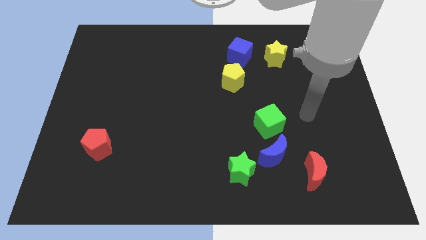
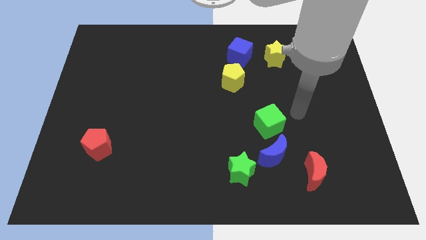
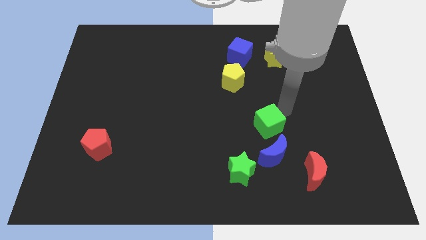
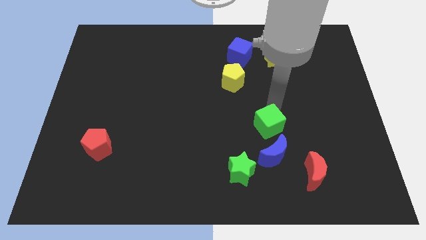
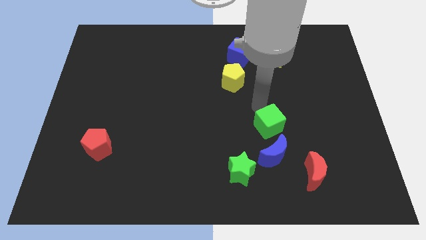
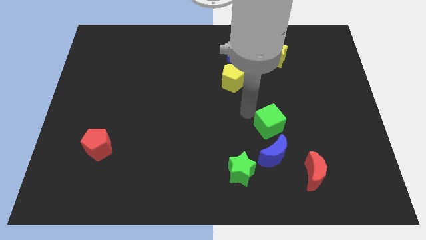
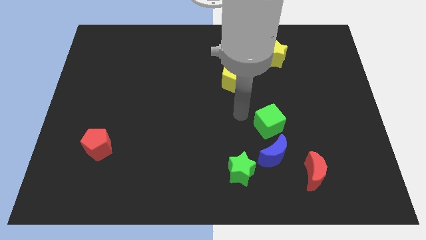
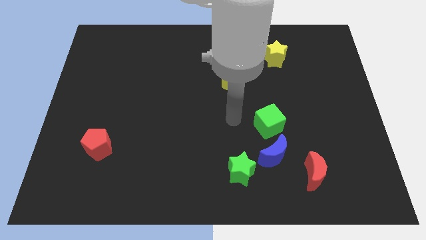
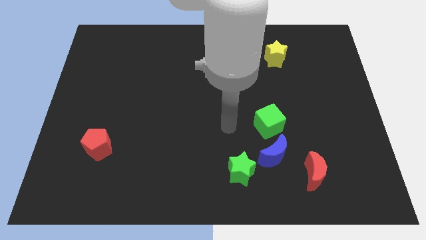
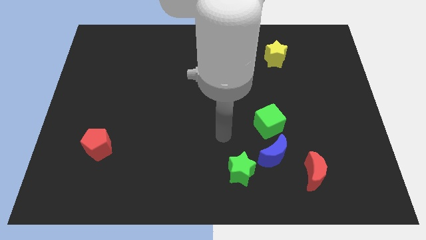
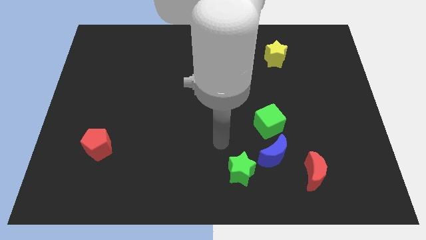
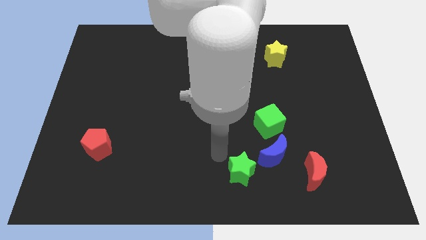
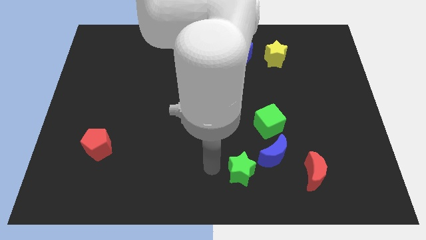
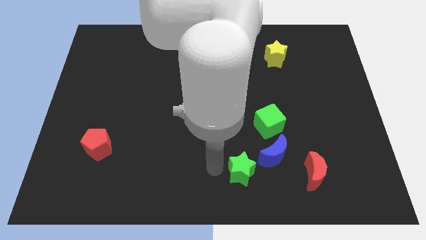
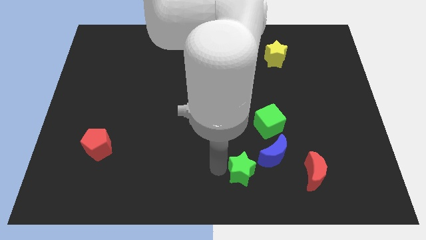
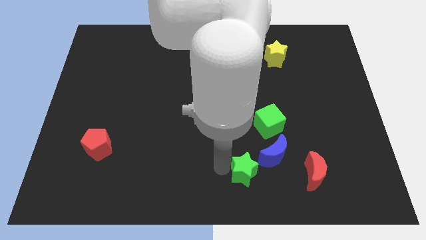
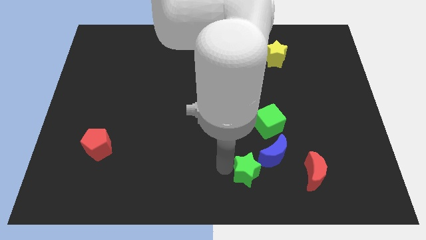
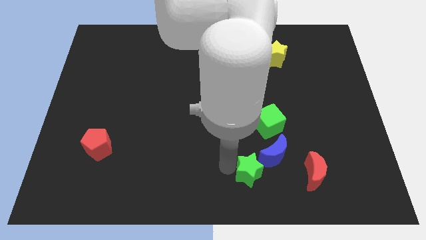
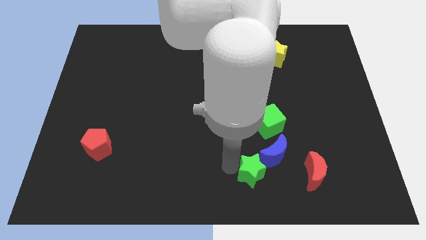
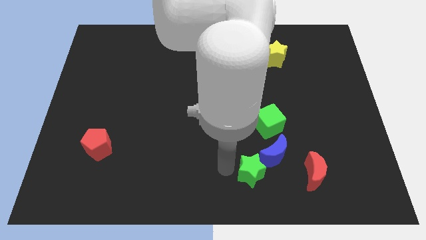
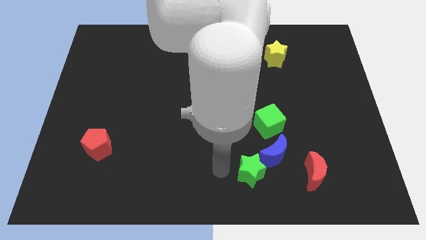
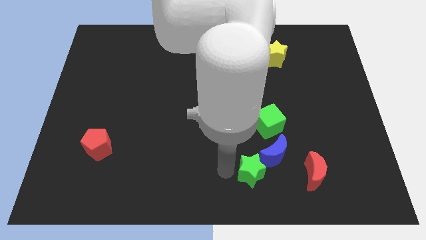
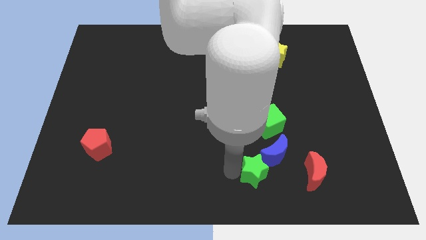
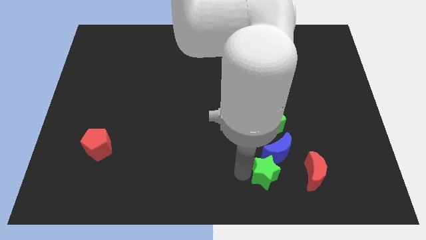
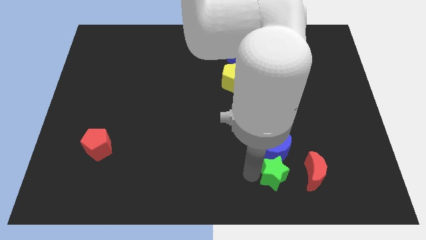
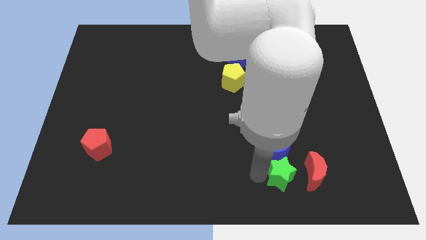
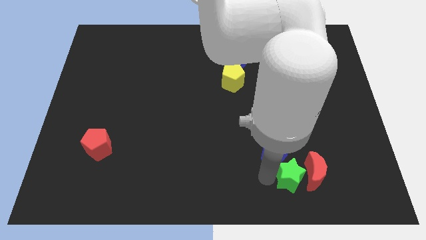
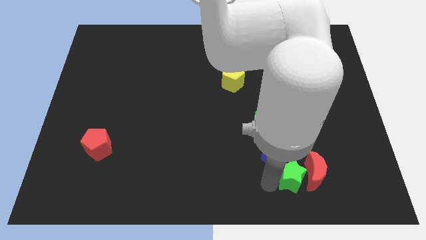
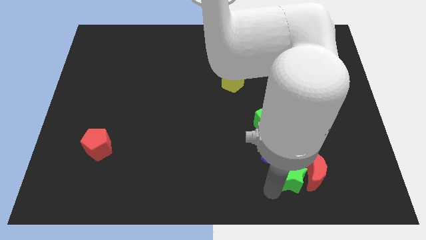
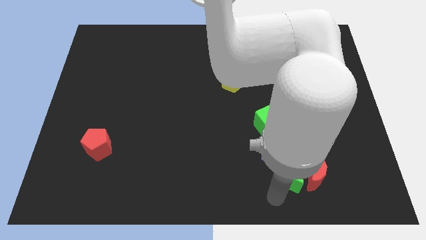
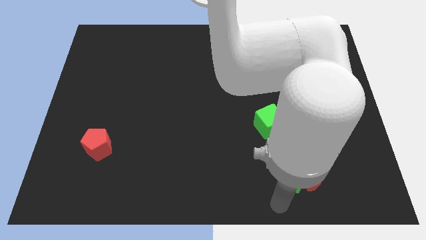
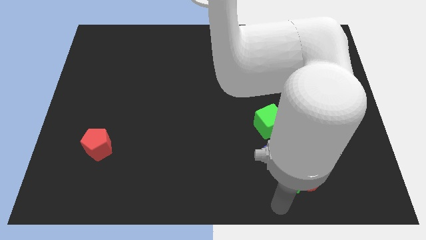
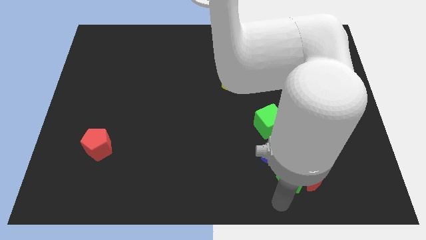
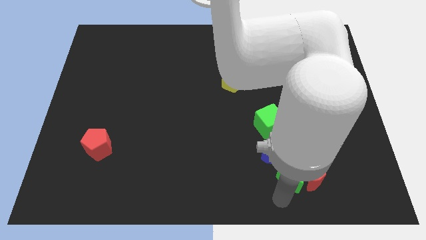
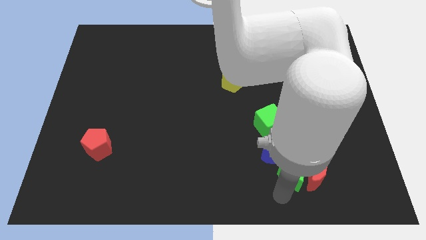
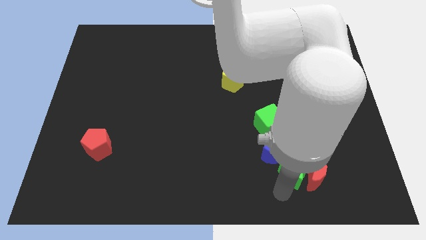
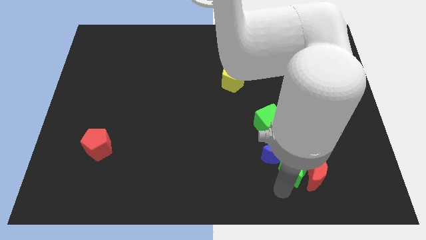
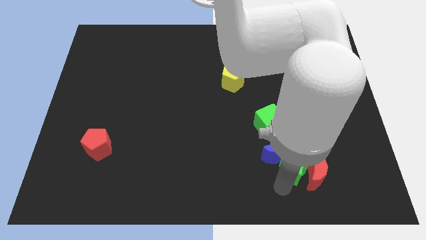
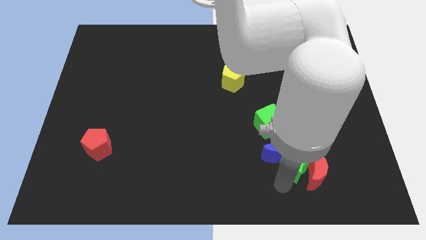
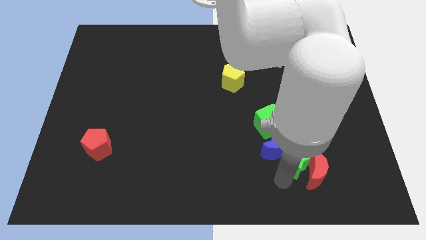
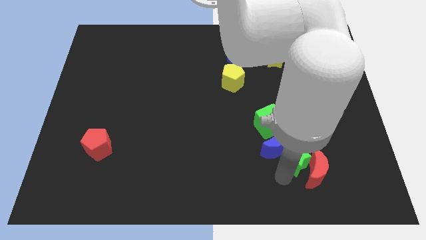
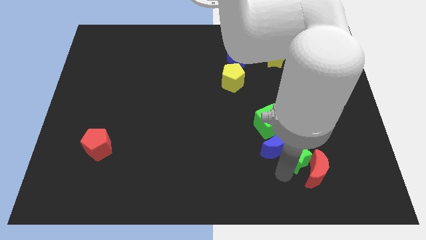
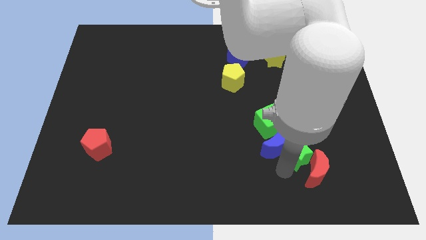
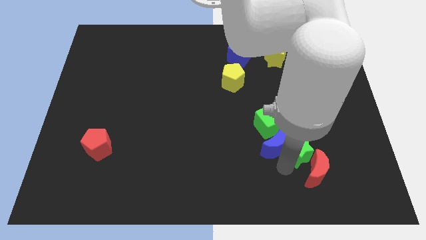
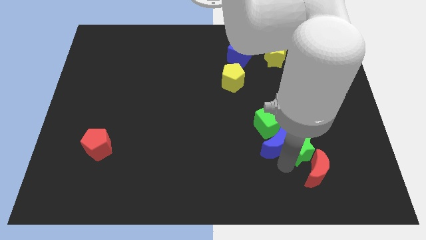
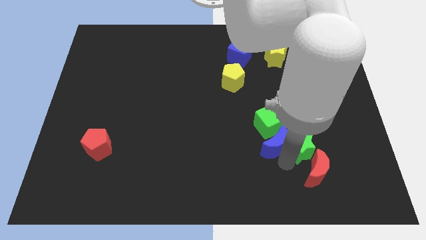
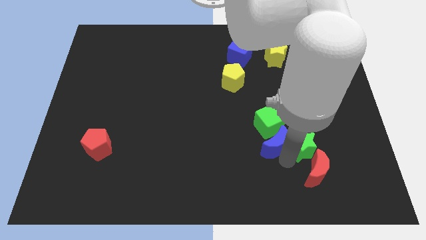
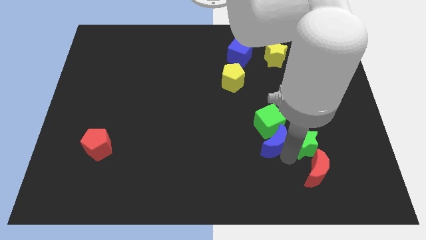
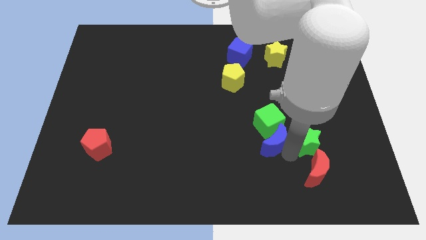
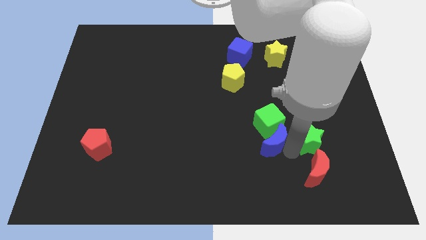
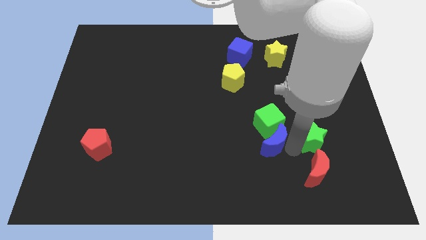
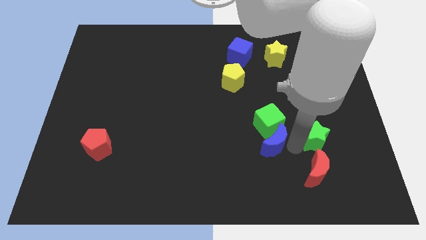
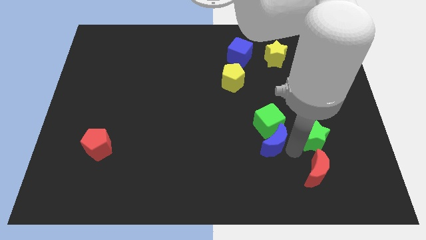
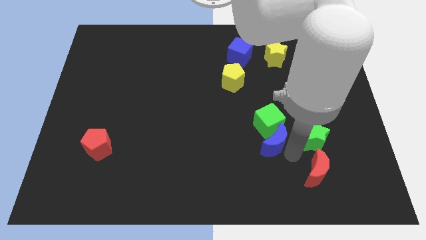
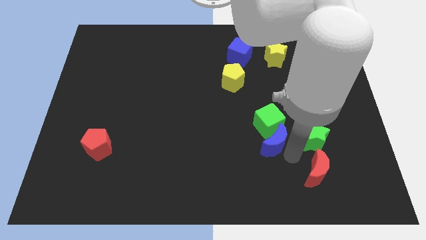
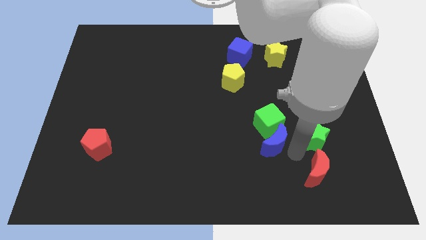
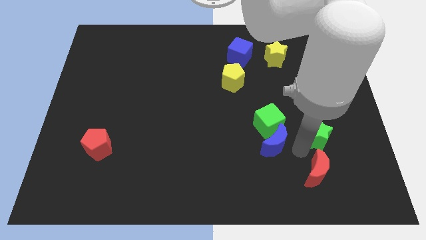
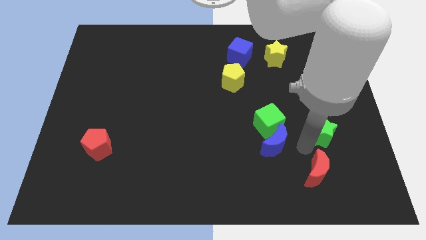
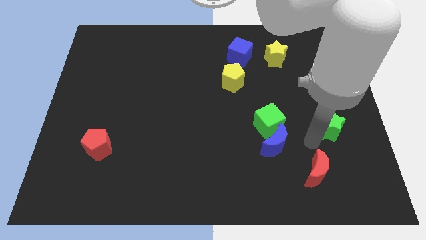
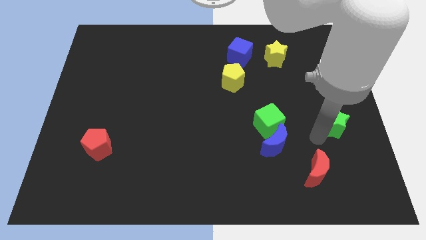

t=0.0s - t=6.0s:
slide the green star to the right side of the board

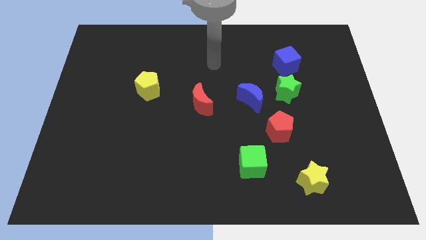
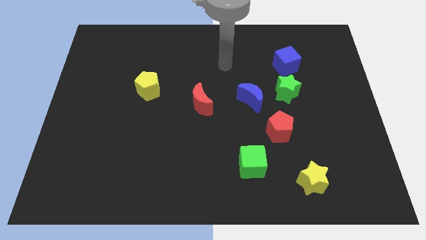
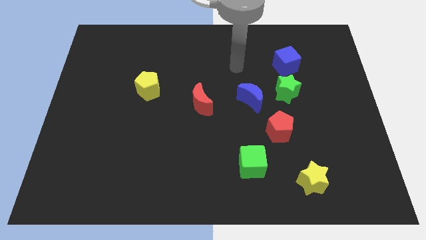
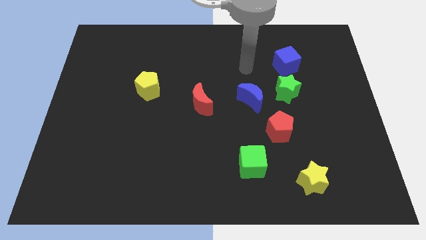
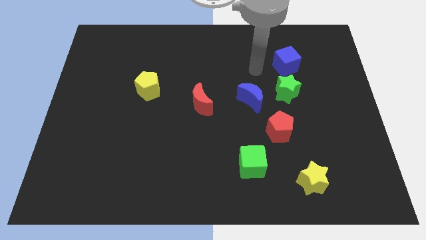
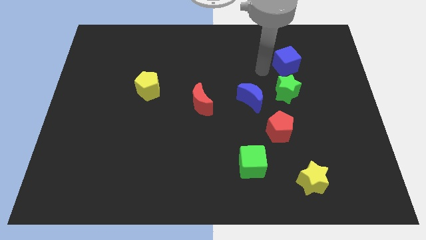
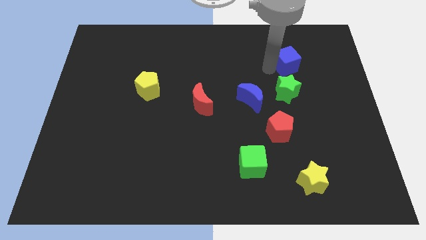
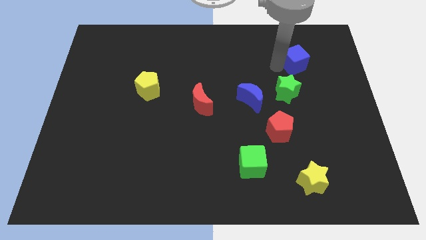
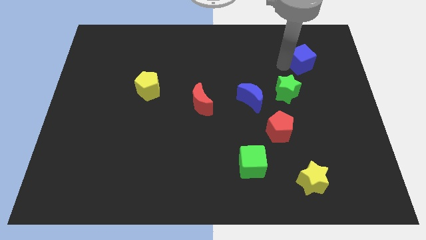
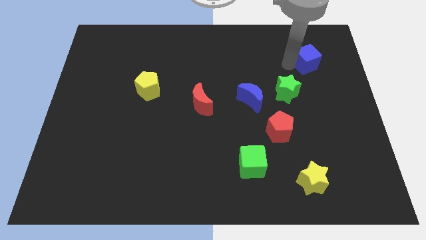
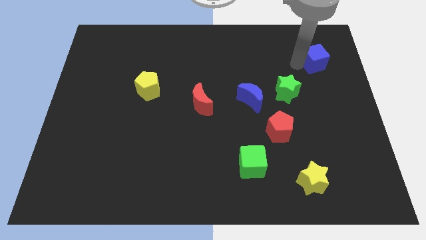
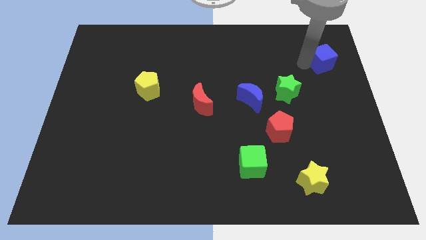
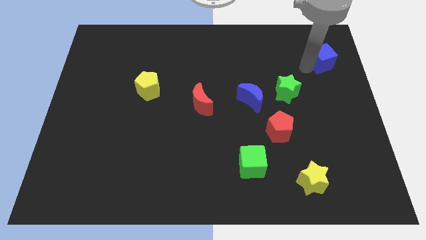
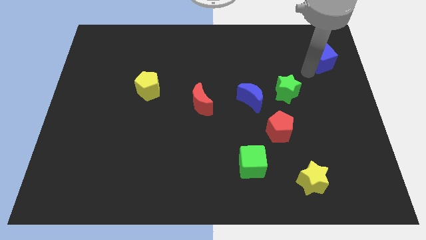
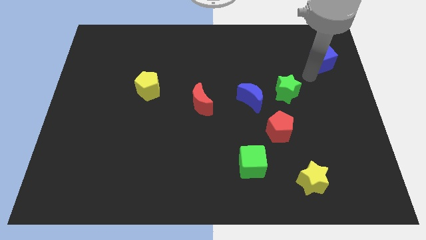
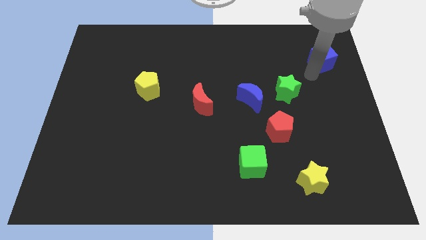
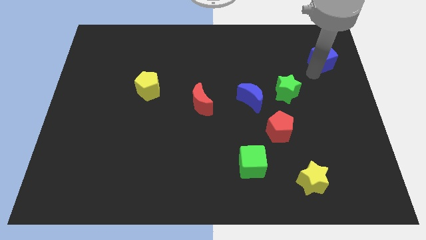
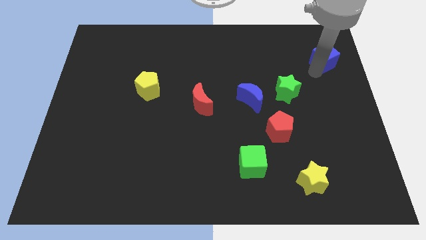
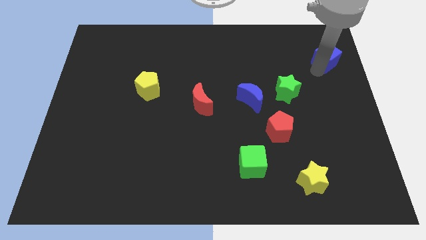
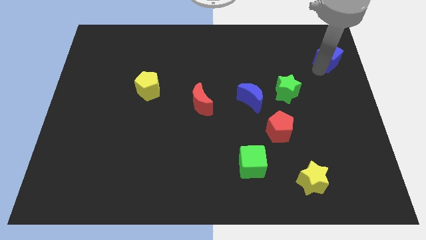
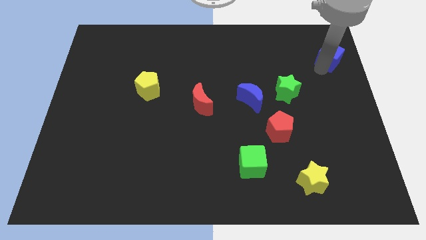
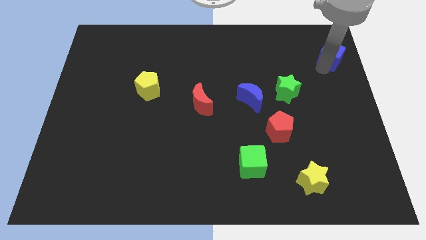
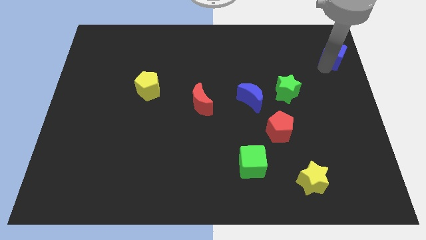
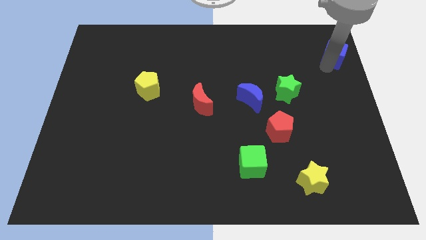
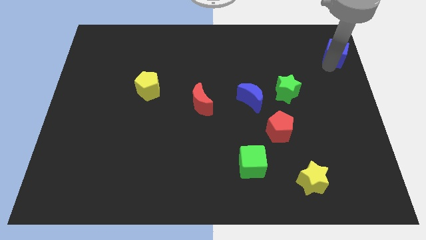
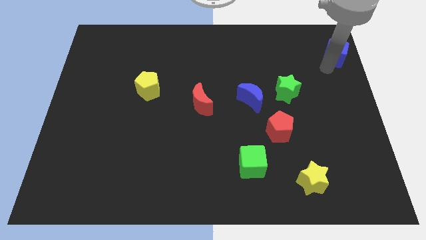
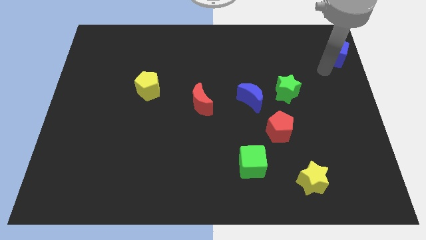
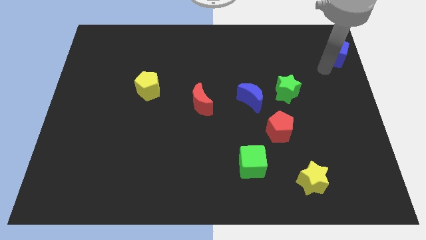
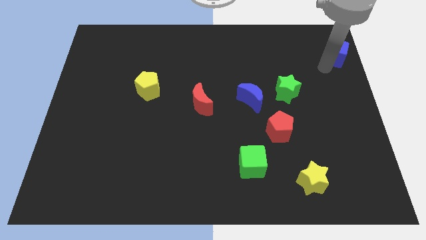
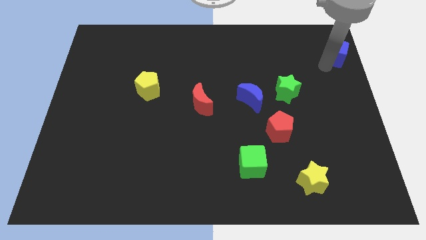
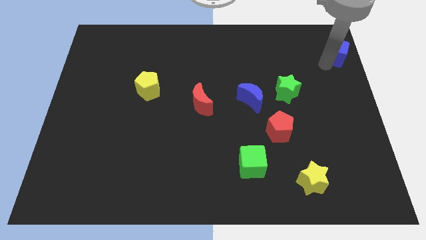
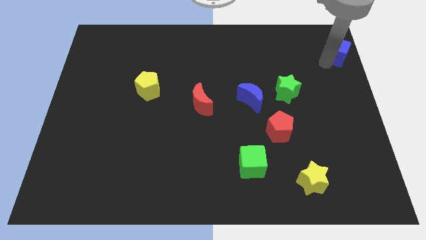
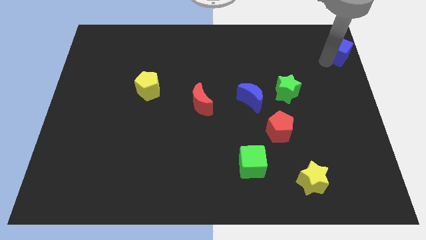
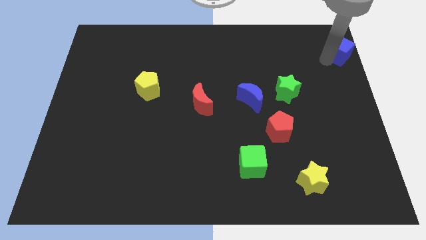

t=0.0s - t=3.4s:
push the blue cube to the top right of the board
